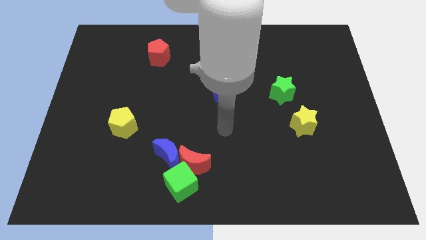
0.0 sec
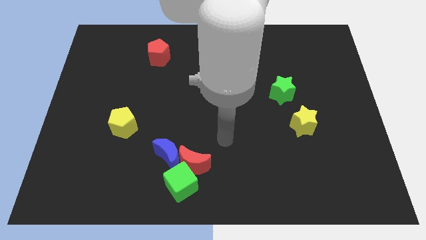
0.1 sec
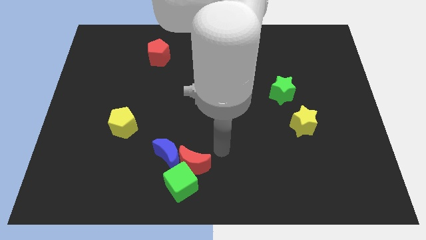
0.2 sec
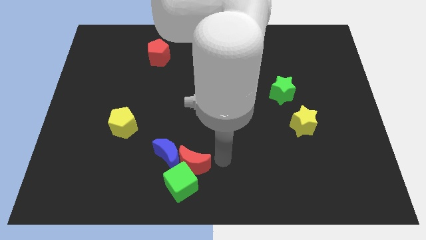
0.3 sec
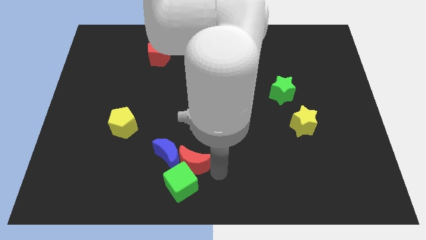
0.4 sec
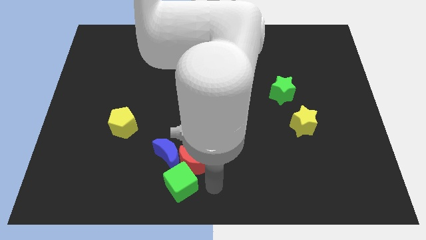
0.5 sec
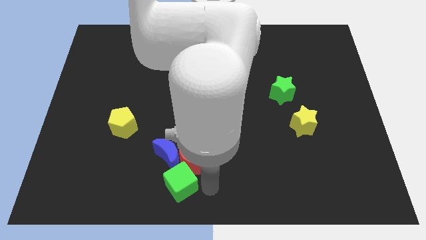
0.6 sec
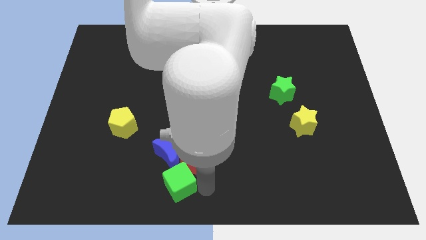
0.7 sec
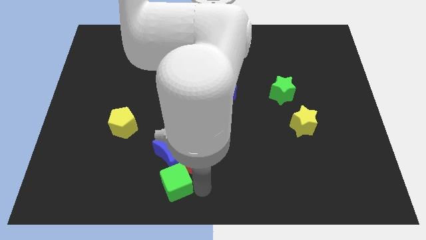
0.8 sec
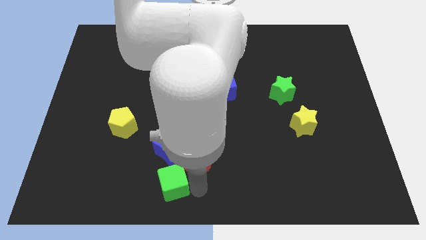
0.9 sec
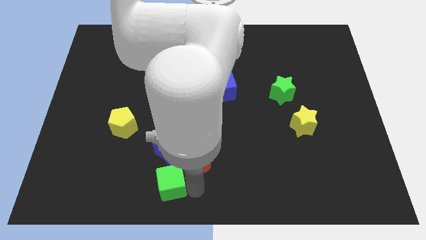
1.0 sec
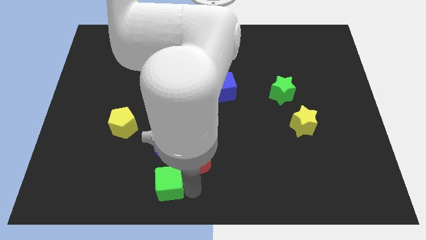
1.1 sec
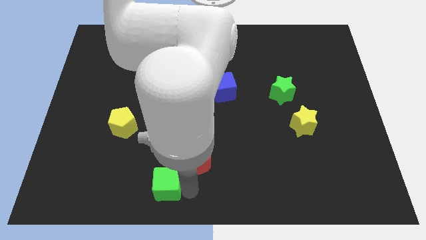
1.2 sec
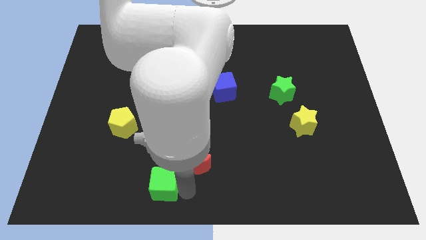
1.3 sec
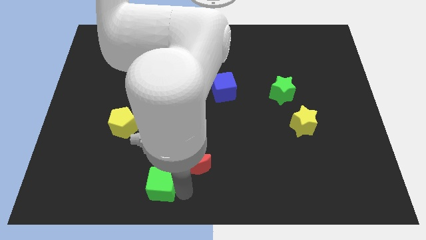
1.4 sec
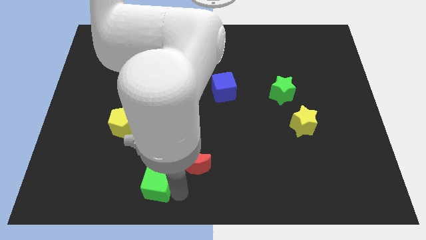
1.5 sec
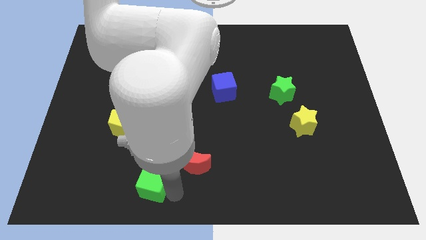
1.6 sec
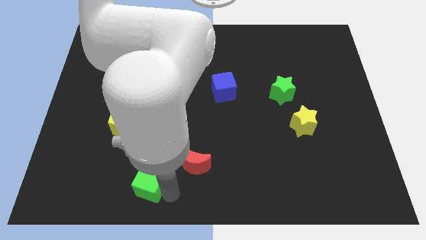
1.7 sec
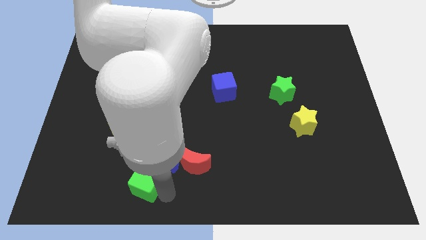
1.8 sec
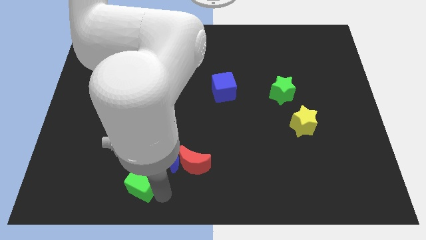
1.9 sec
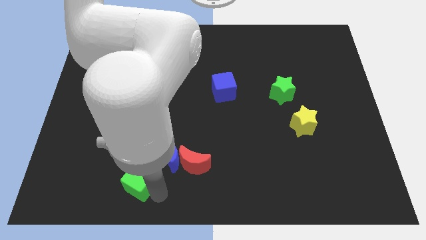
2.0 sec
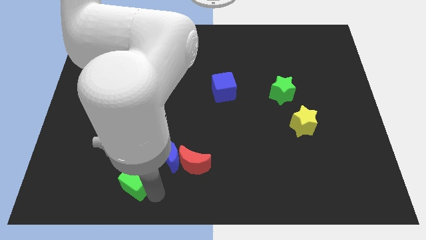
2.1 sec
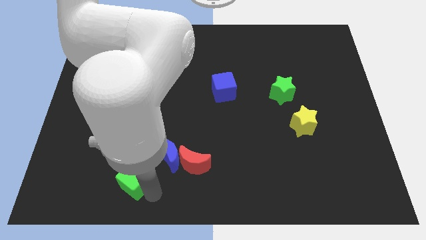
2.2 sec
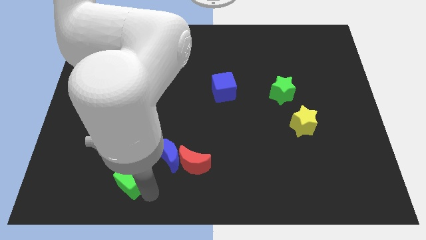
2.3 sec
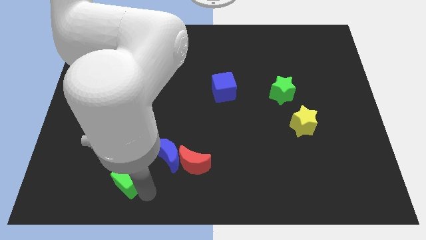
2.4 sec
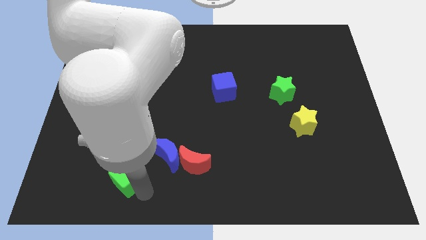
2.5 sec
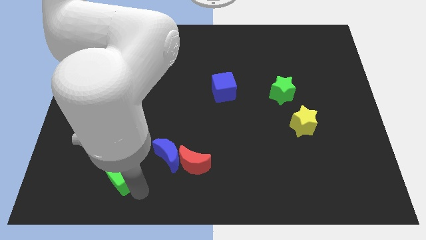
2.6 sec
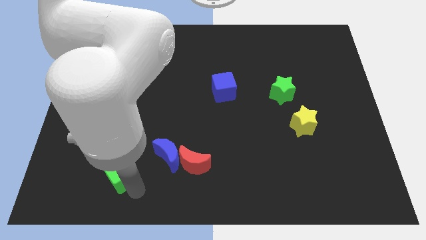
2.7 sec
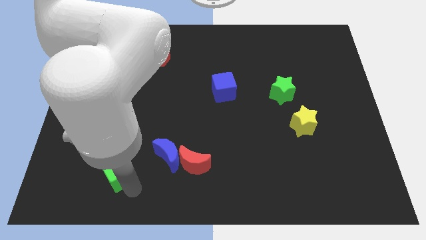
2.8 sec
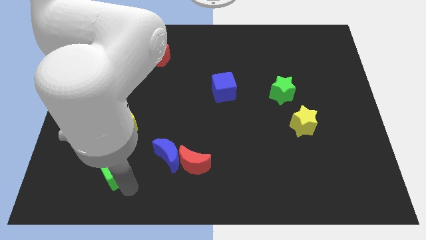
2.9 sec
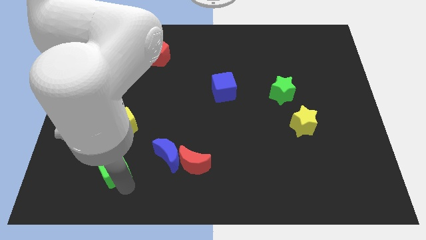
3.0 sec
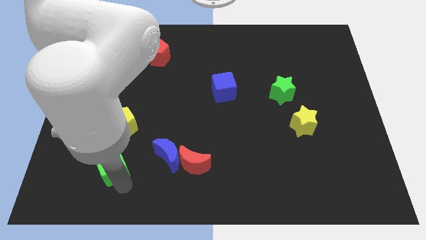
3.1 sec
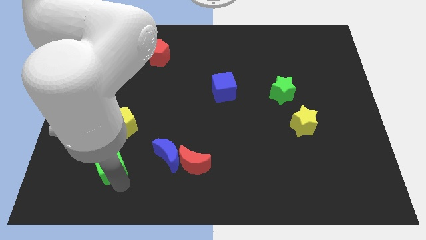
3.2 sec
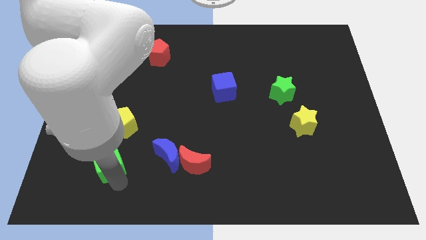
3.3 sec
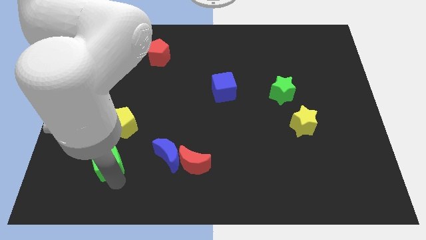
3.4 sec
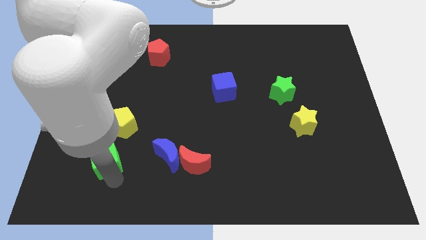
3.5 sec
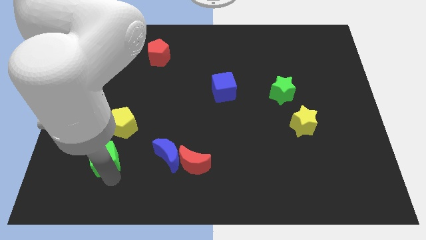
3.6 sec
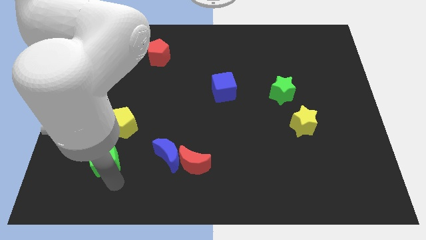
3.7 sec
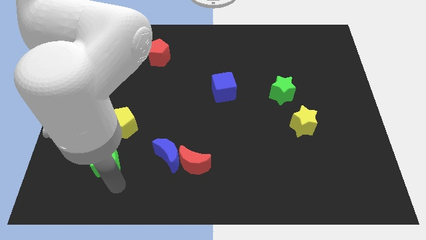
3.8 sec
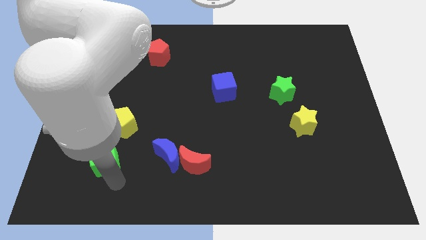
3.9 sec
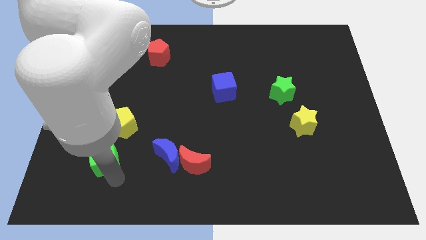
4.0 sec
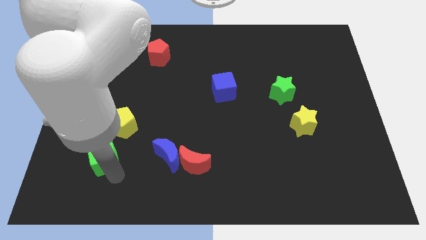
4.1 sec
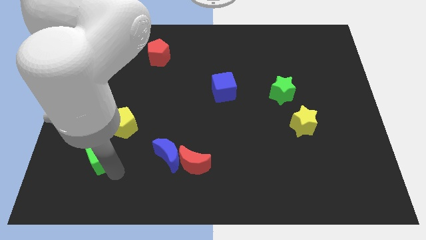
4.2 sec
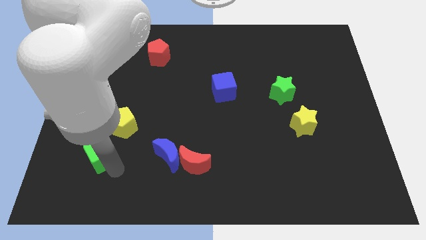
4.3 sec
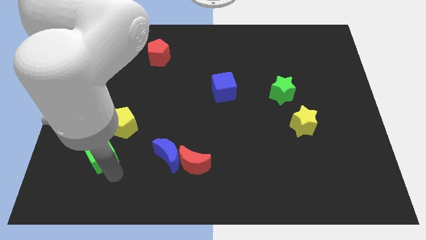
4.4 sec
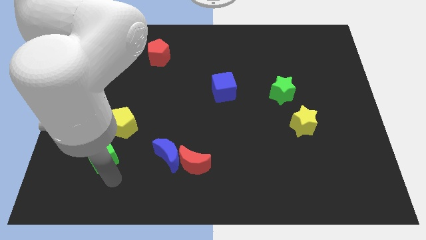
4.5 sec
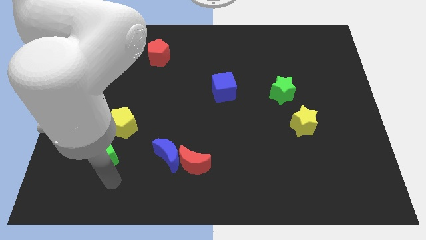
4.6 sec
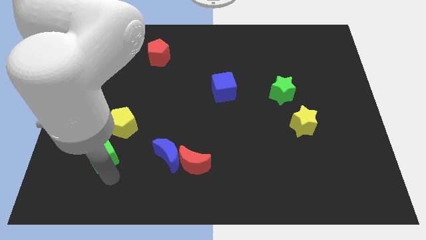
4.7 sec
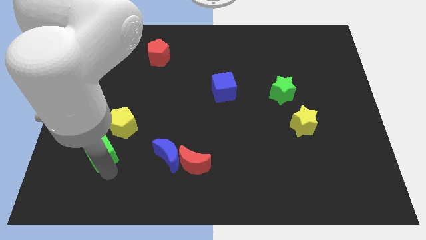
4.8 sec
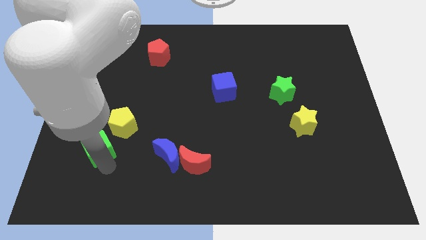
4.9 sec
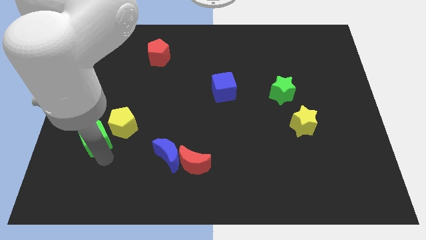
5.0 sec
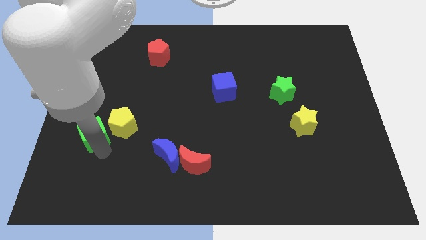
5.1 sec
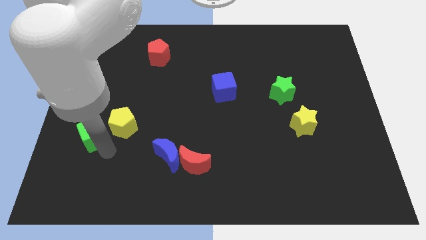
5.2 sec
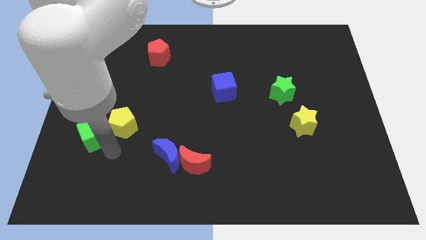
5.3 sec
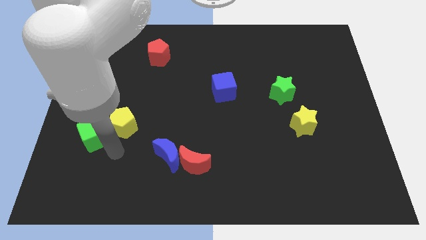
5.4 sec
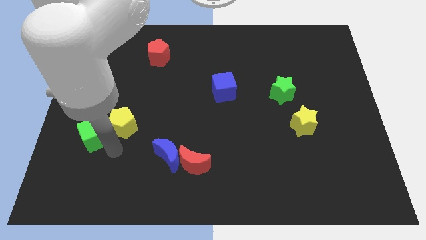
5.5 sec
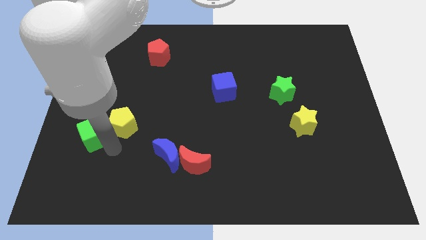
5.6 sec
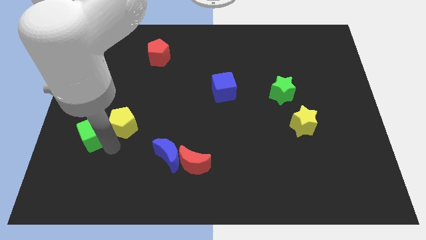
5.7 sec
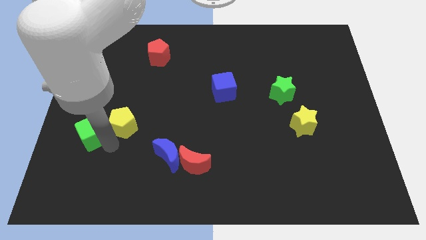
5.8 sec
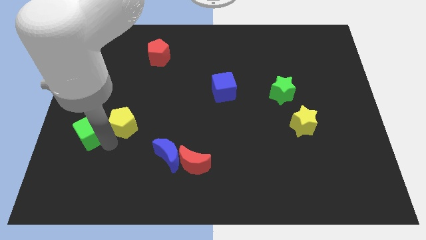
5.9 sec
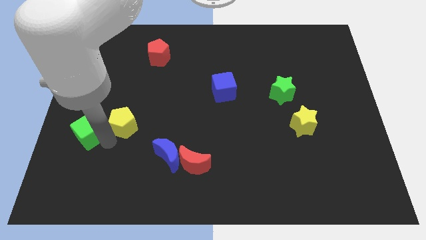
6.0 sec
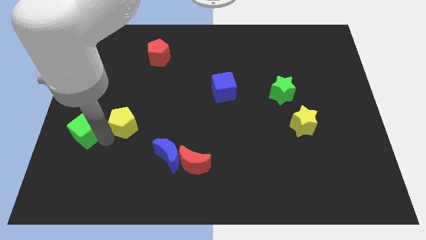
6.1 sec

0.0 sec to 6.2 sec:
push the green cube to the left side of the board

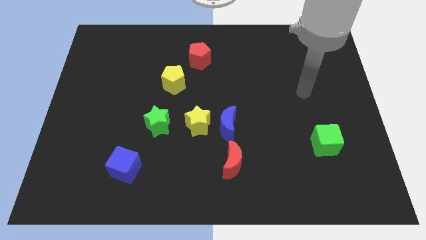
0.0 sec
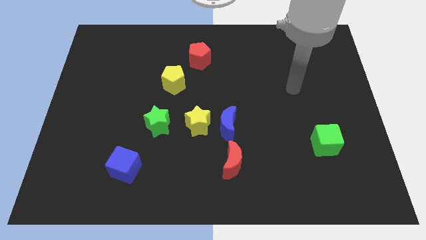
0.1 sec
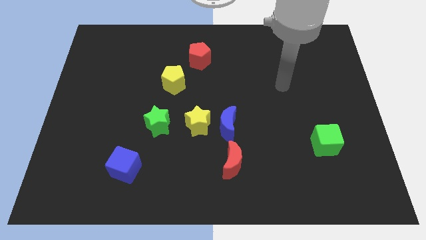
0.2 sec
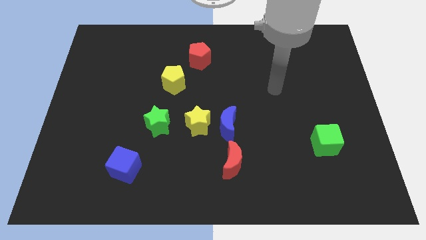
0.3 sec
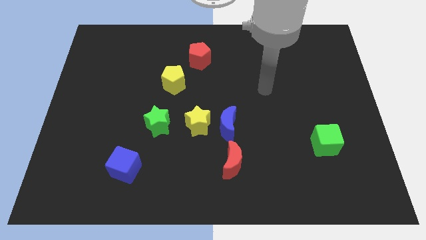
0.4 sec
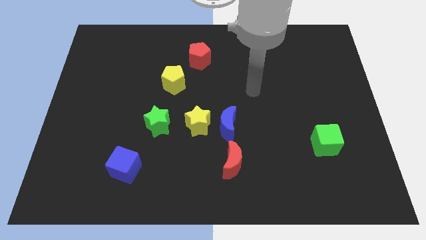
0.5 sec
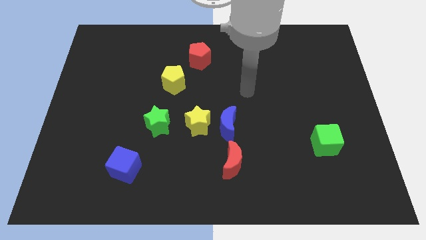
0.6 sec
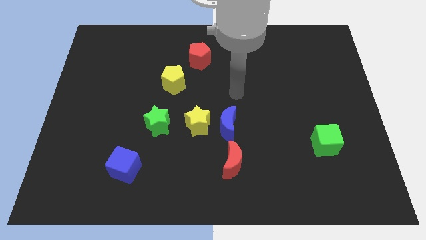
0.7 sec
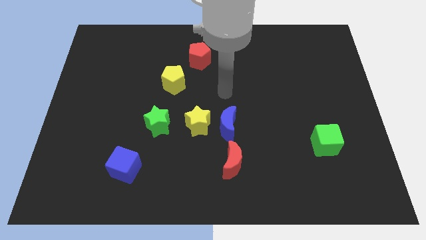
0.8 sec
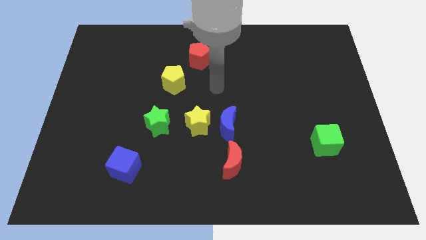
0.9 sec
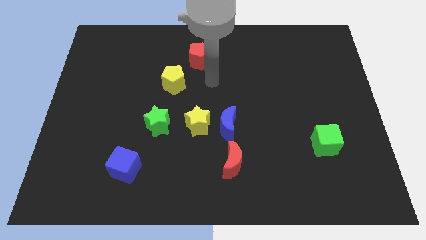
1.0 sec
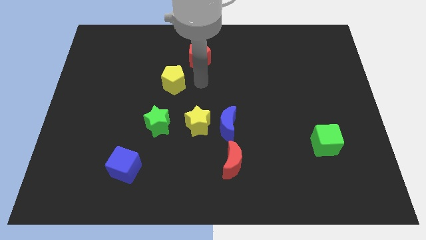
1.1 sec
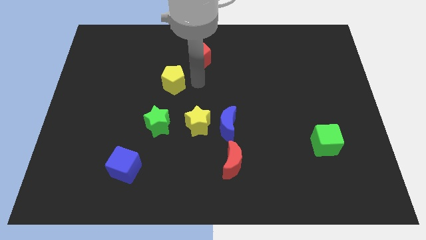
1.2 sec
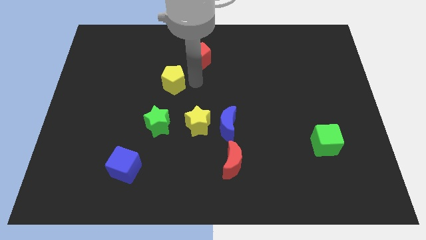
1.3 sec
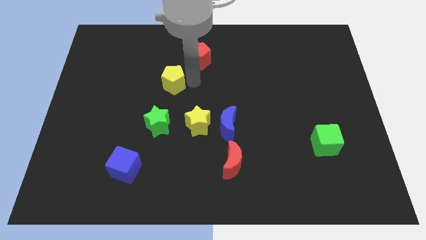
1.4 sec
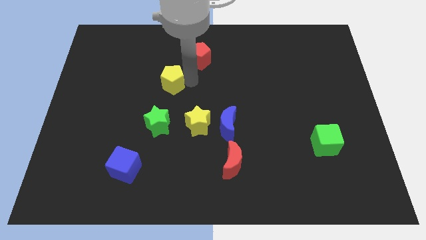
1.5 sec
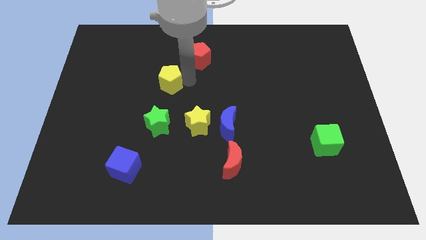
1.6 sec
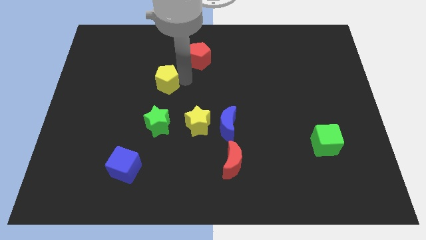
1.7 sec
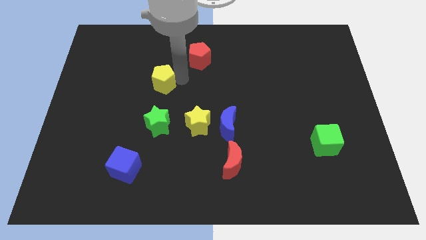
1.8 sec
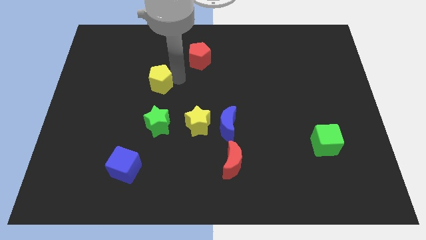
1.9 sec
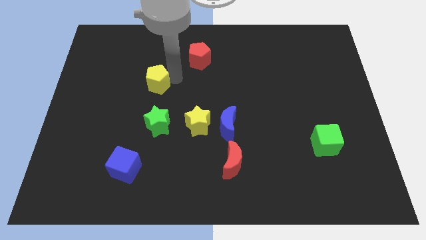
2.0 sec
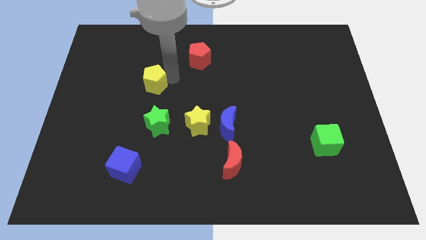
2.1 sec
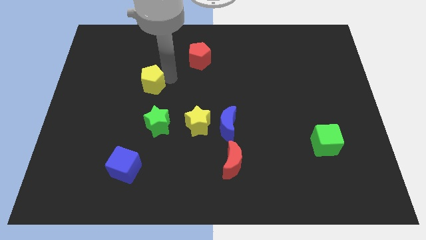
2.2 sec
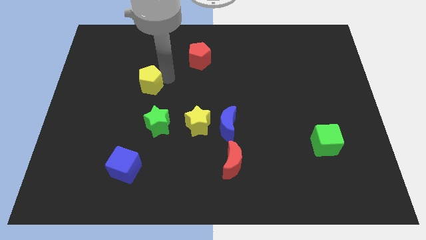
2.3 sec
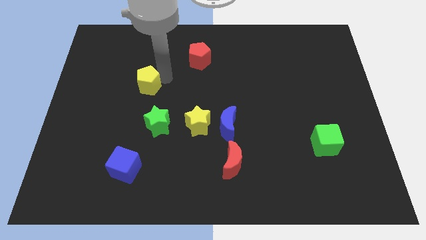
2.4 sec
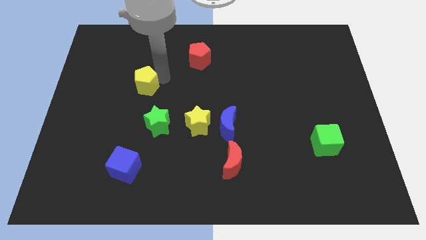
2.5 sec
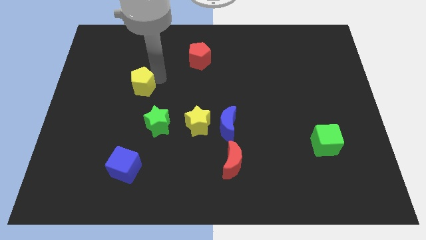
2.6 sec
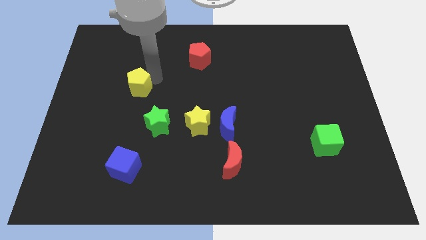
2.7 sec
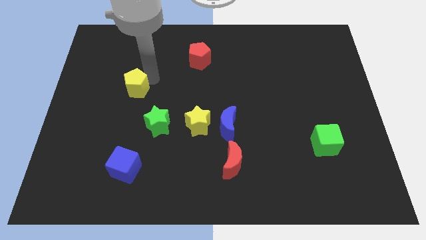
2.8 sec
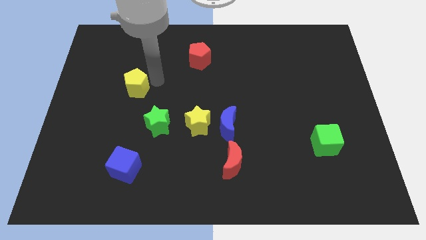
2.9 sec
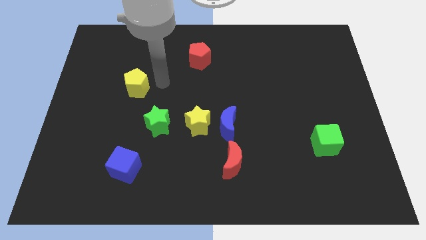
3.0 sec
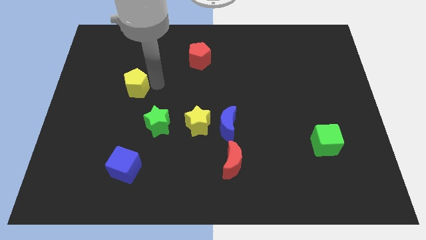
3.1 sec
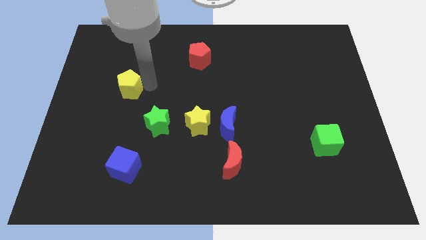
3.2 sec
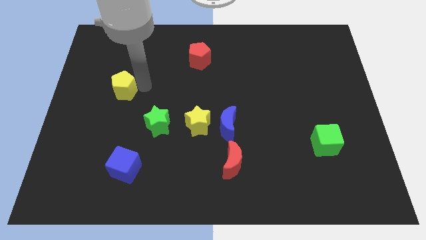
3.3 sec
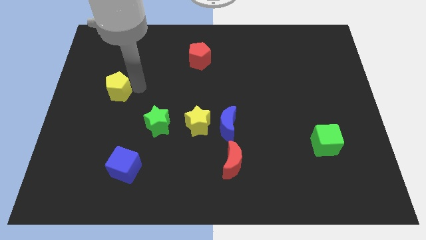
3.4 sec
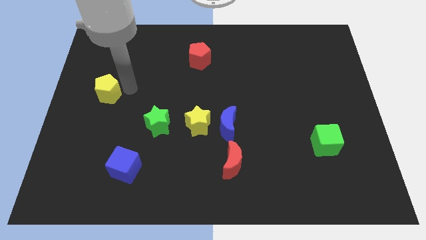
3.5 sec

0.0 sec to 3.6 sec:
slide the yellow pentagon to the left side
